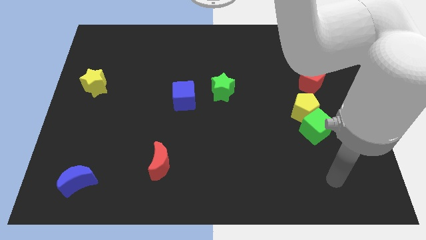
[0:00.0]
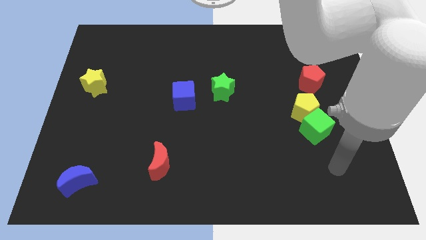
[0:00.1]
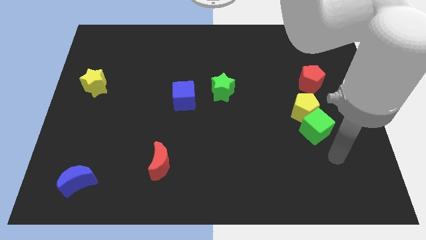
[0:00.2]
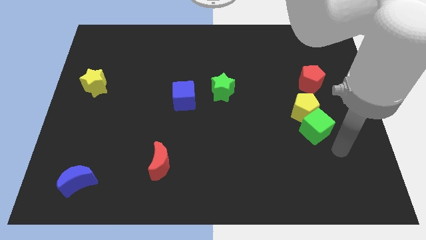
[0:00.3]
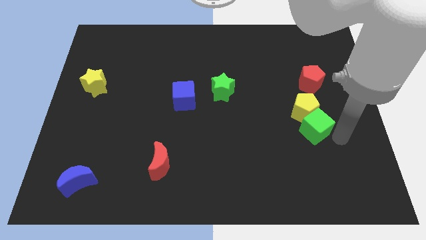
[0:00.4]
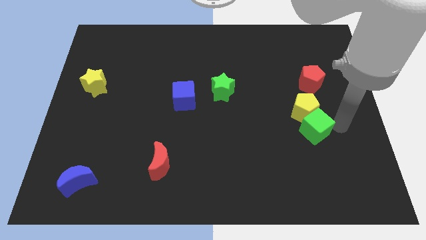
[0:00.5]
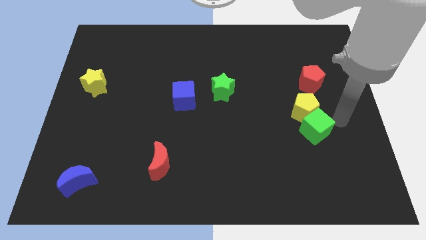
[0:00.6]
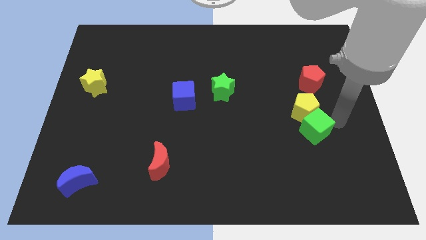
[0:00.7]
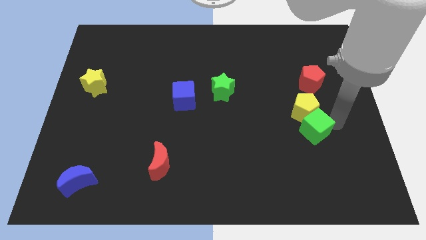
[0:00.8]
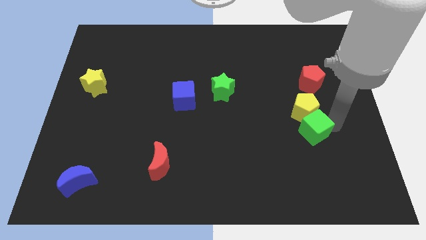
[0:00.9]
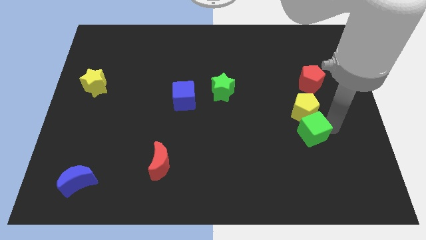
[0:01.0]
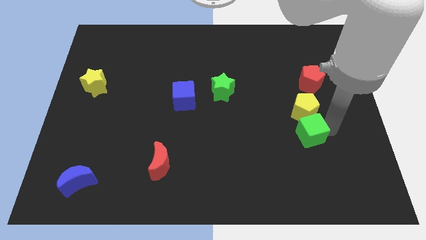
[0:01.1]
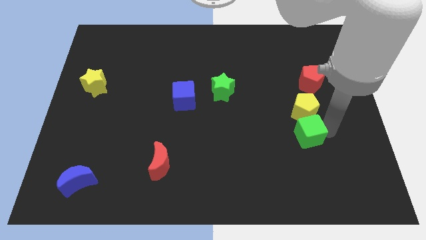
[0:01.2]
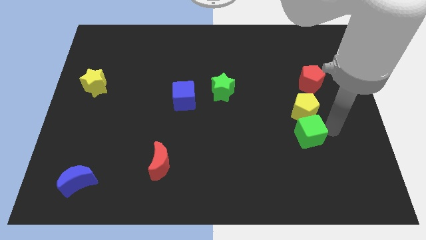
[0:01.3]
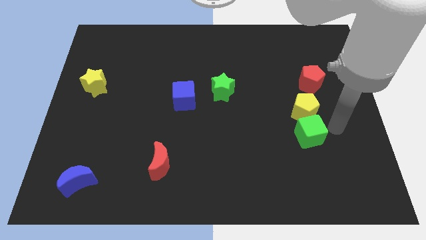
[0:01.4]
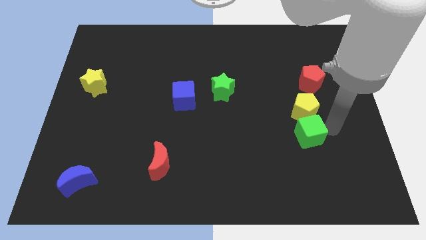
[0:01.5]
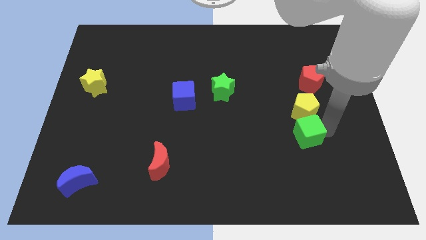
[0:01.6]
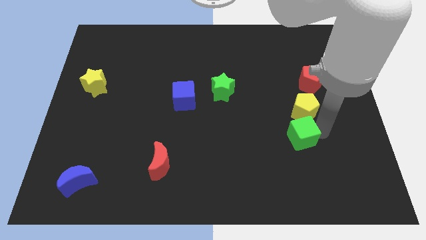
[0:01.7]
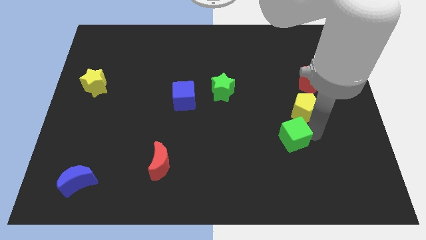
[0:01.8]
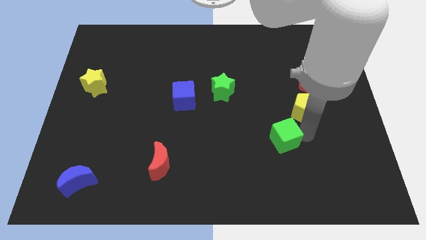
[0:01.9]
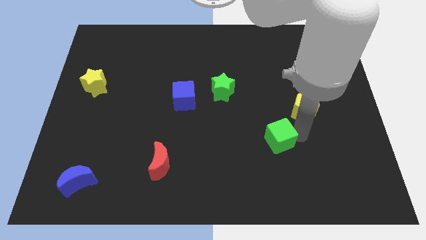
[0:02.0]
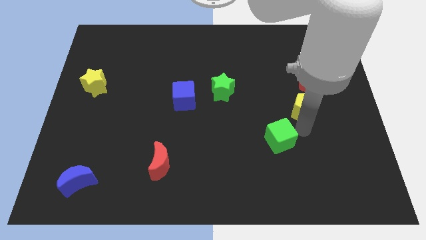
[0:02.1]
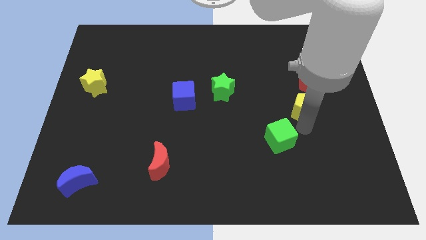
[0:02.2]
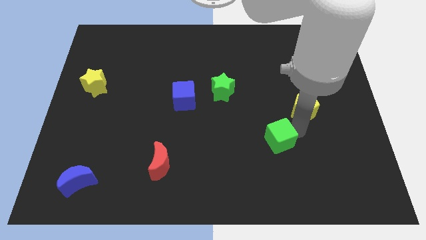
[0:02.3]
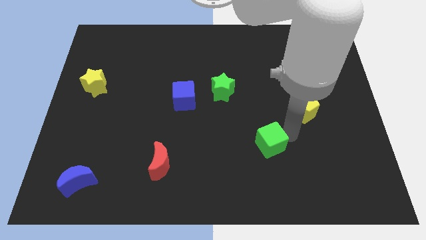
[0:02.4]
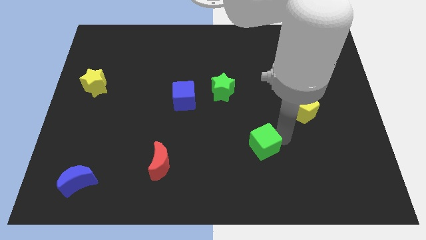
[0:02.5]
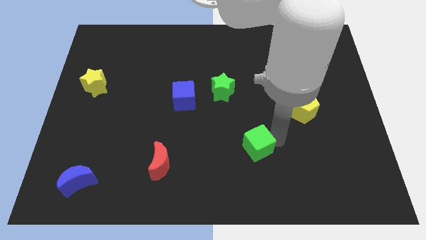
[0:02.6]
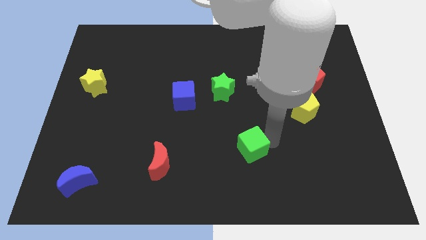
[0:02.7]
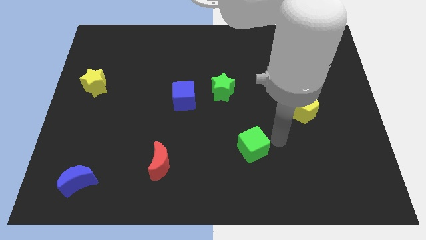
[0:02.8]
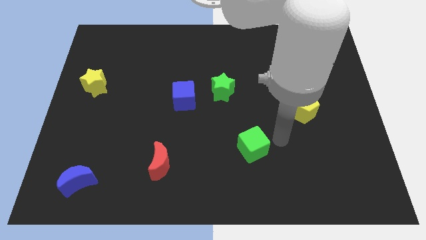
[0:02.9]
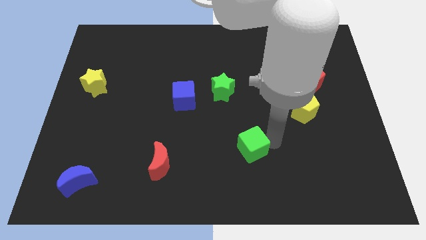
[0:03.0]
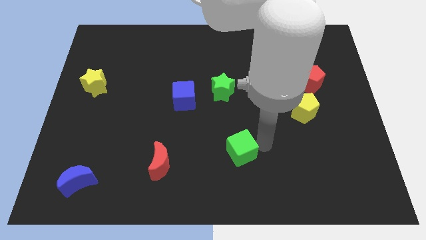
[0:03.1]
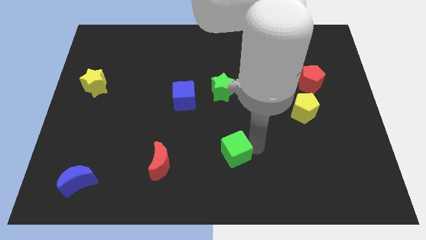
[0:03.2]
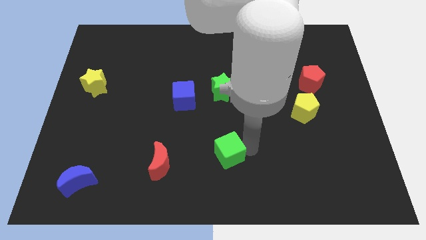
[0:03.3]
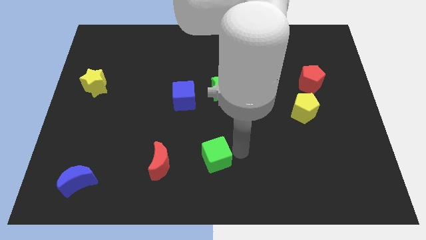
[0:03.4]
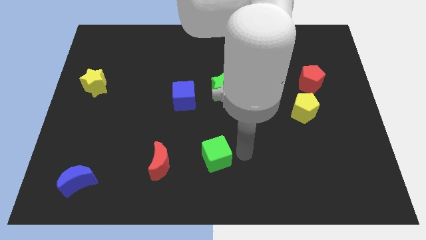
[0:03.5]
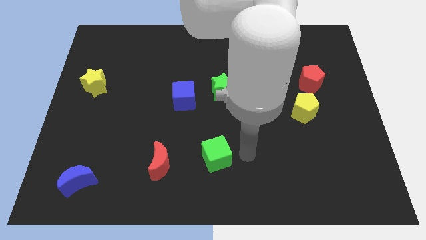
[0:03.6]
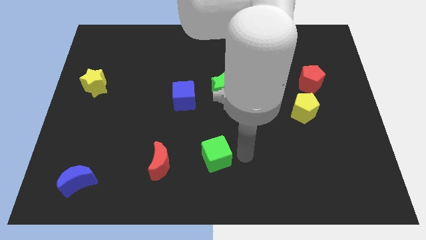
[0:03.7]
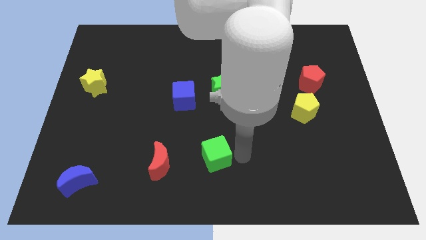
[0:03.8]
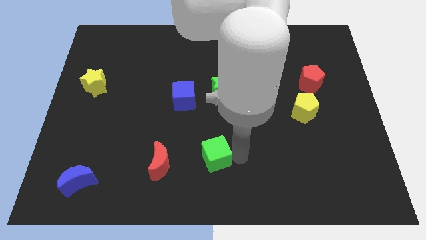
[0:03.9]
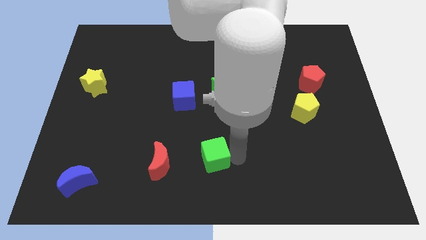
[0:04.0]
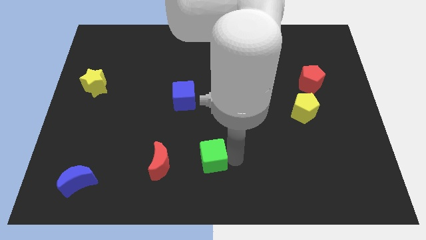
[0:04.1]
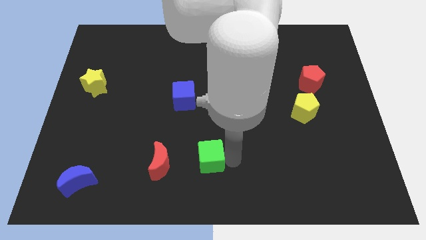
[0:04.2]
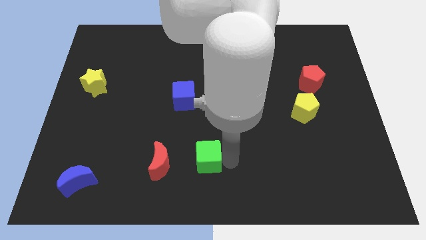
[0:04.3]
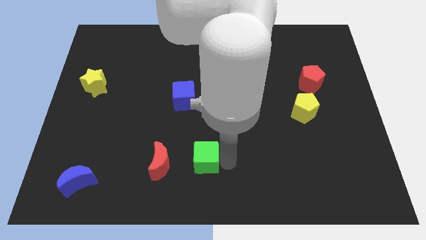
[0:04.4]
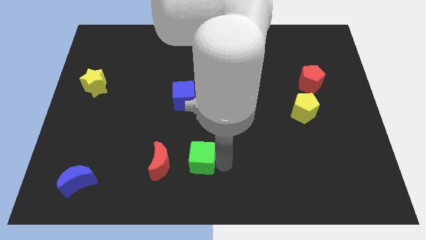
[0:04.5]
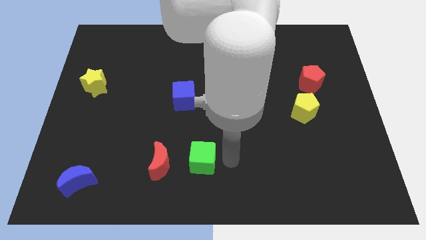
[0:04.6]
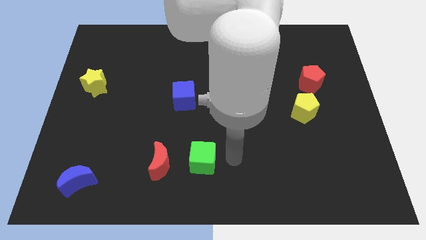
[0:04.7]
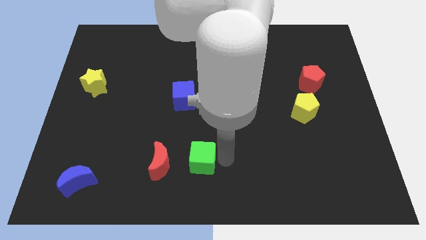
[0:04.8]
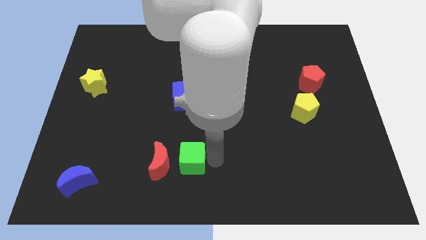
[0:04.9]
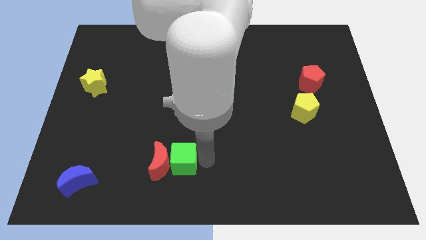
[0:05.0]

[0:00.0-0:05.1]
move the green cube to the red moon

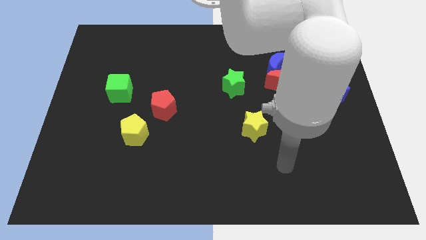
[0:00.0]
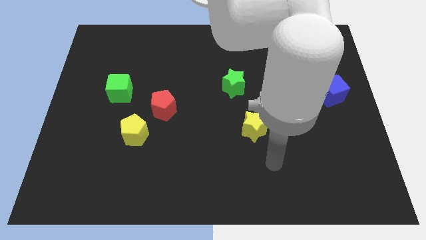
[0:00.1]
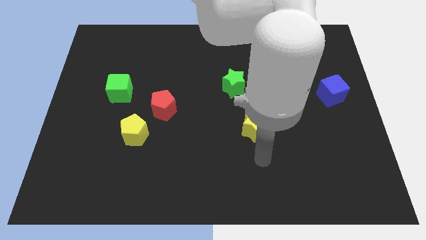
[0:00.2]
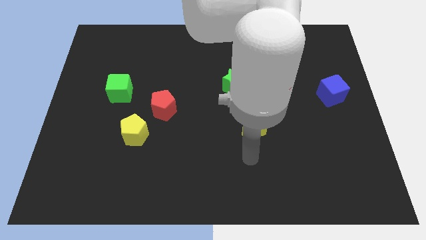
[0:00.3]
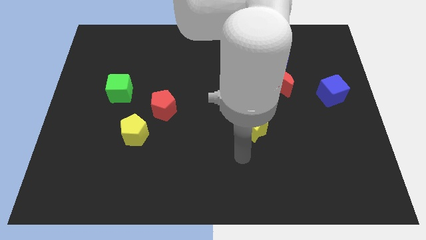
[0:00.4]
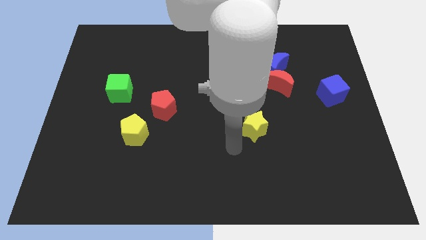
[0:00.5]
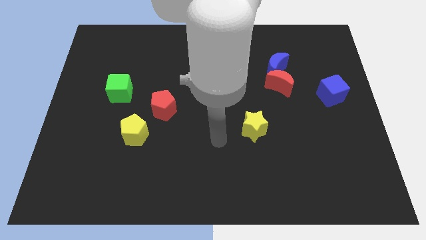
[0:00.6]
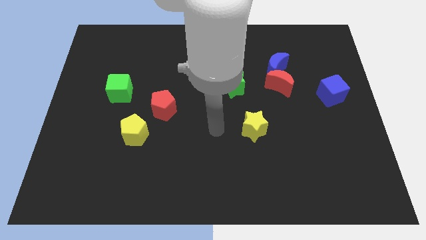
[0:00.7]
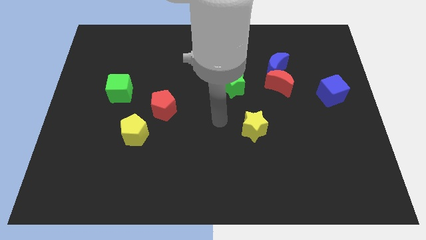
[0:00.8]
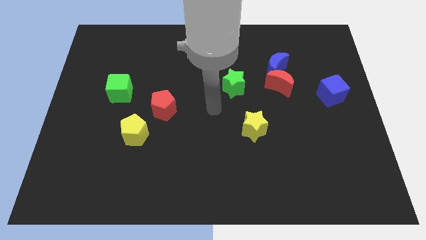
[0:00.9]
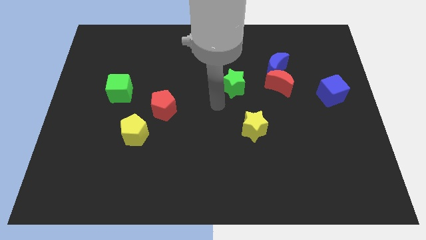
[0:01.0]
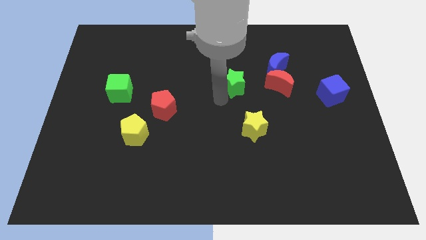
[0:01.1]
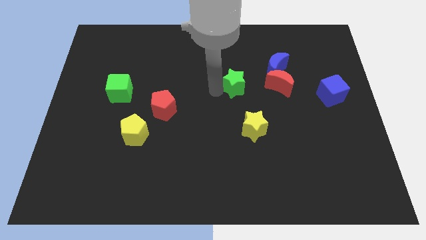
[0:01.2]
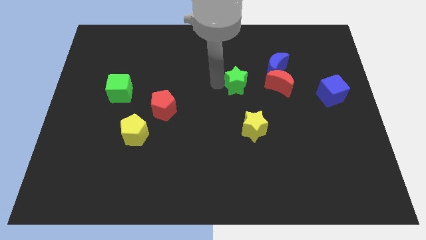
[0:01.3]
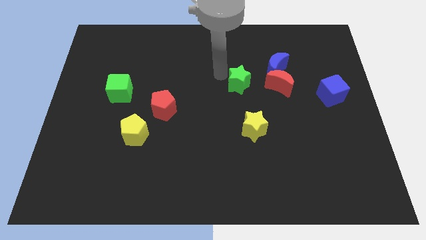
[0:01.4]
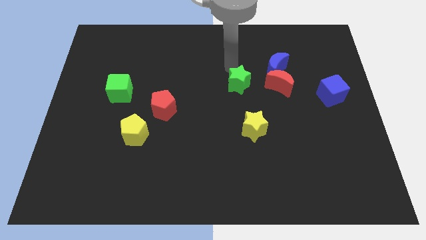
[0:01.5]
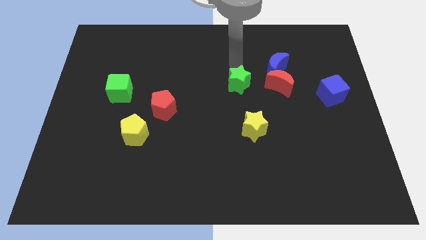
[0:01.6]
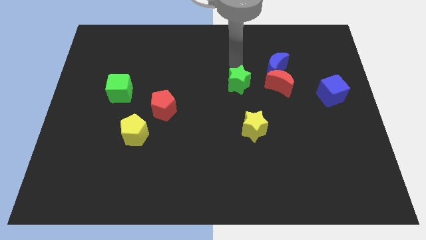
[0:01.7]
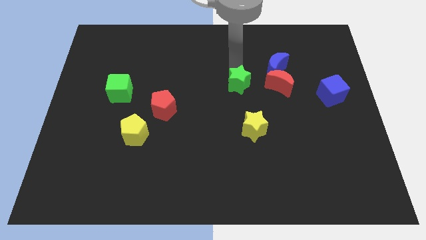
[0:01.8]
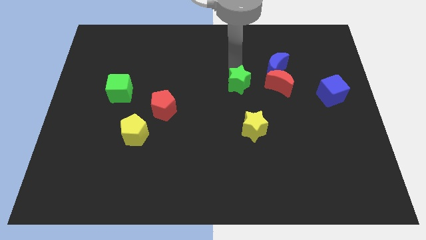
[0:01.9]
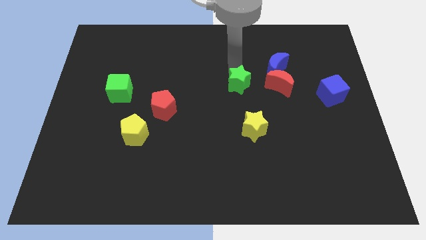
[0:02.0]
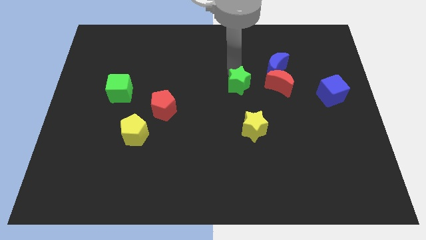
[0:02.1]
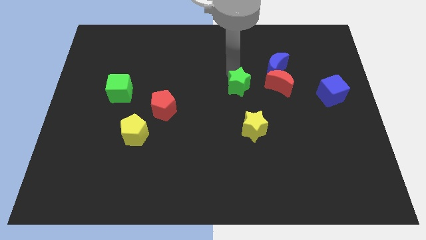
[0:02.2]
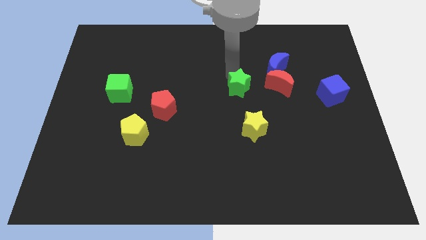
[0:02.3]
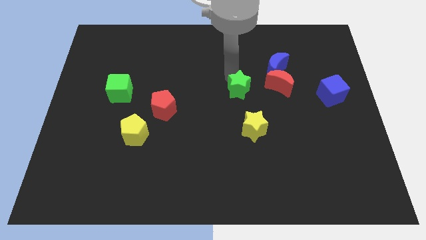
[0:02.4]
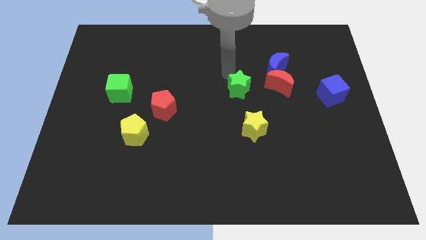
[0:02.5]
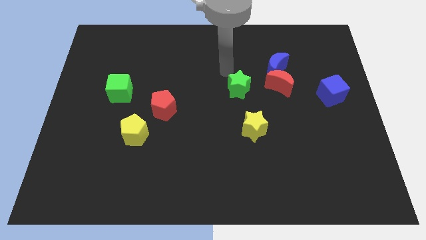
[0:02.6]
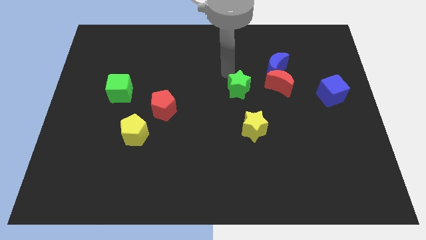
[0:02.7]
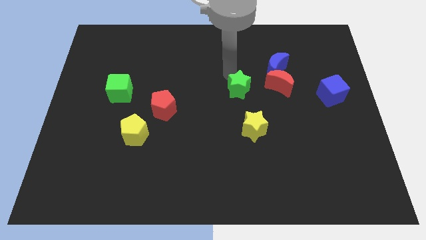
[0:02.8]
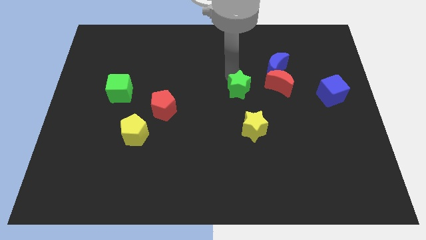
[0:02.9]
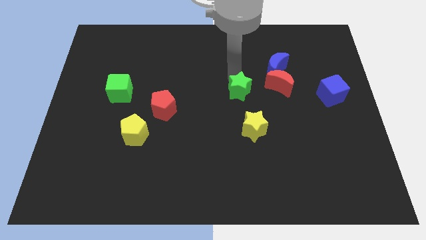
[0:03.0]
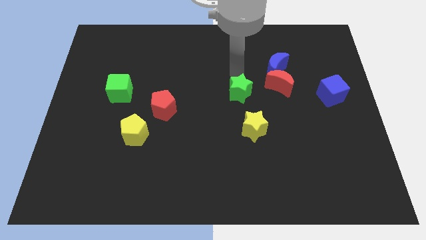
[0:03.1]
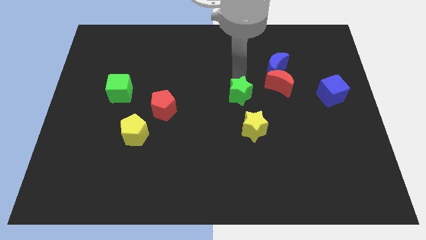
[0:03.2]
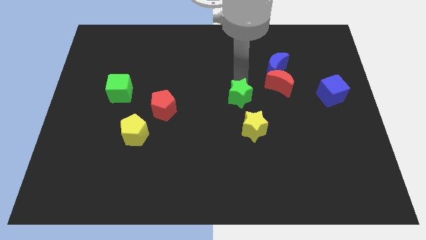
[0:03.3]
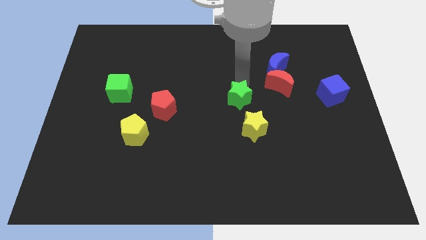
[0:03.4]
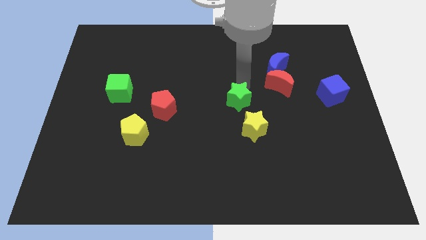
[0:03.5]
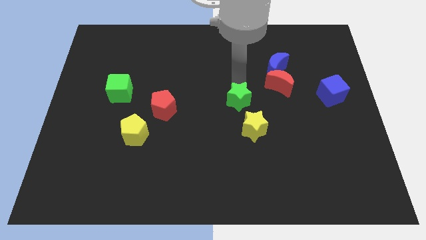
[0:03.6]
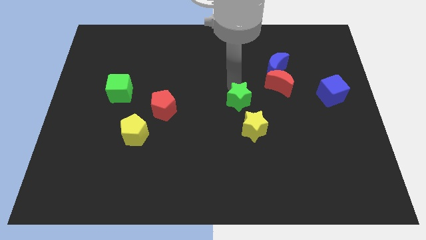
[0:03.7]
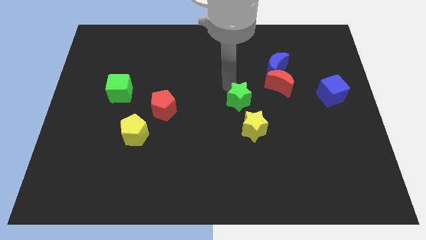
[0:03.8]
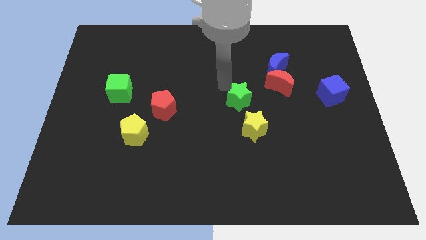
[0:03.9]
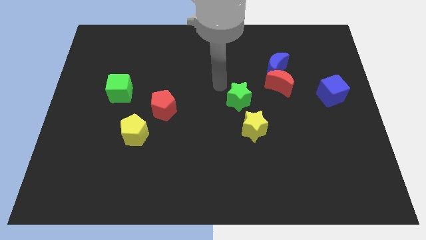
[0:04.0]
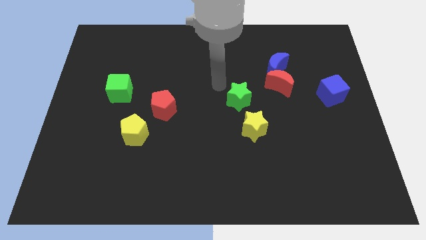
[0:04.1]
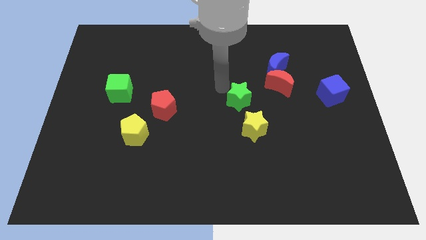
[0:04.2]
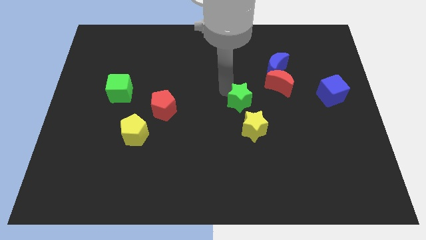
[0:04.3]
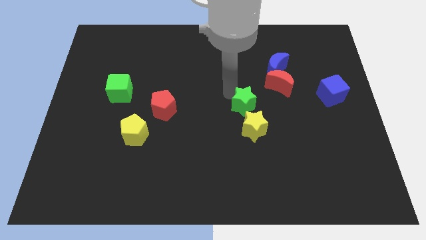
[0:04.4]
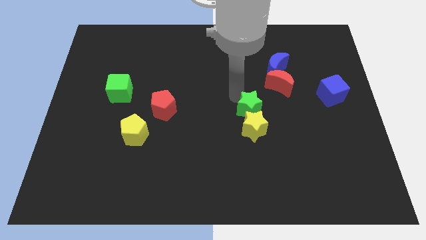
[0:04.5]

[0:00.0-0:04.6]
slide the green star close to the yellow star
